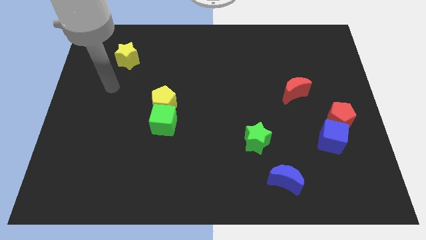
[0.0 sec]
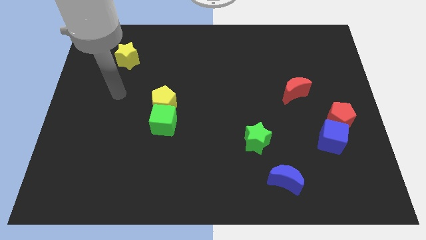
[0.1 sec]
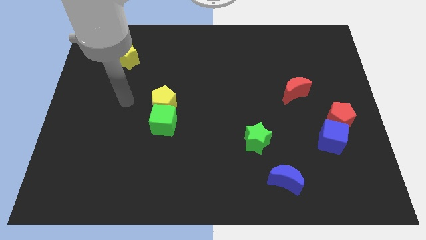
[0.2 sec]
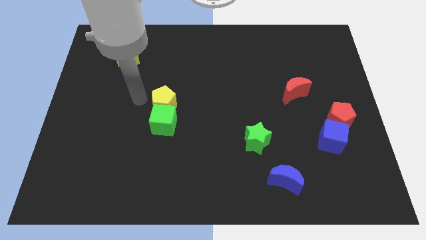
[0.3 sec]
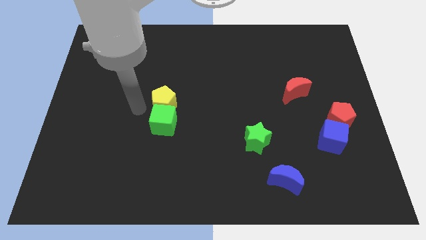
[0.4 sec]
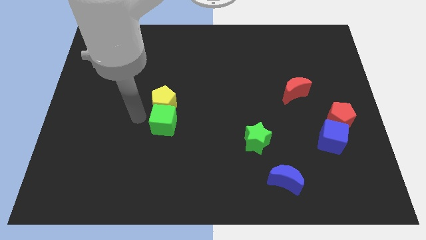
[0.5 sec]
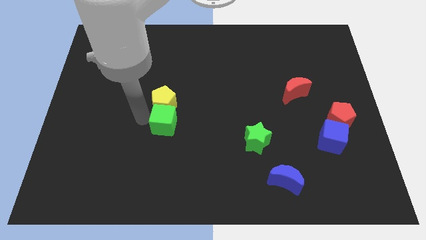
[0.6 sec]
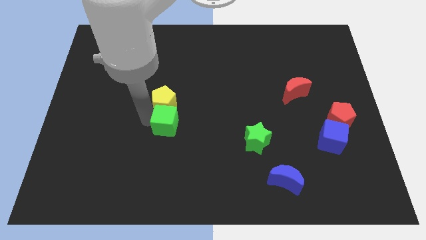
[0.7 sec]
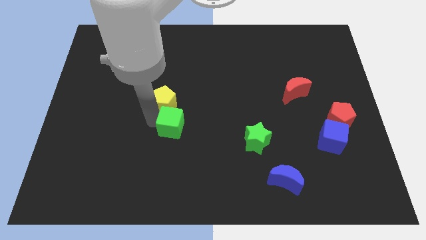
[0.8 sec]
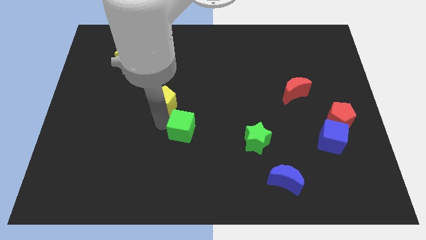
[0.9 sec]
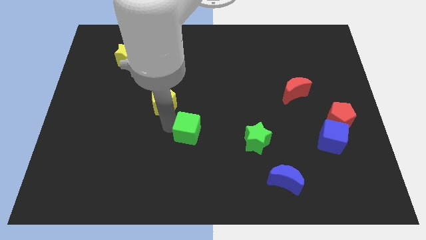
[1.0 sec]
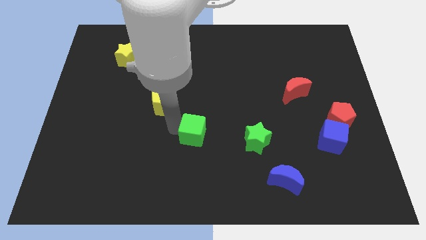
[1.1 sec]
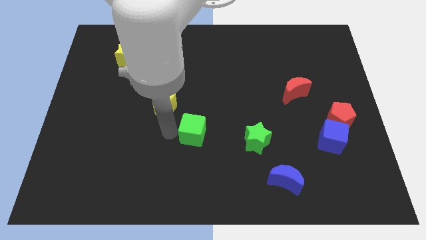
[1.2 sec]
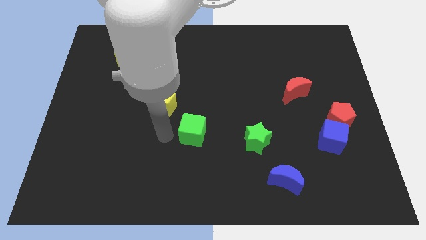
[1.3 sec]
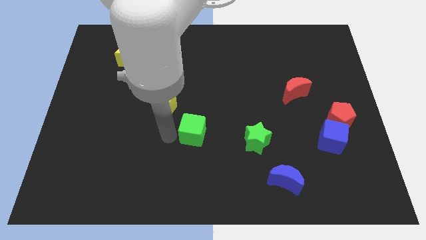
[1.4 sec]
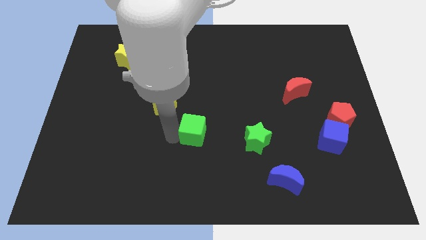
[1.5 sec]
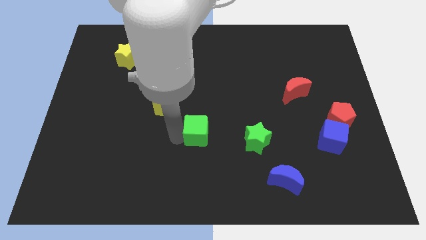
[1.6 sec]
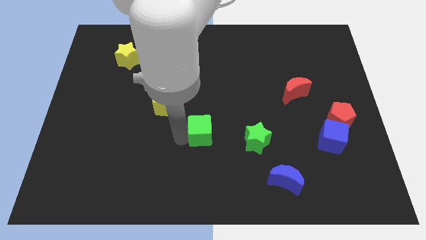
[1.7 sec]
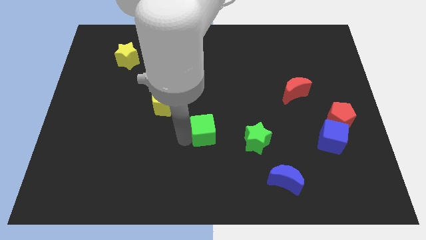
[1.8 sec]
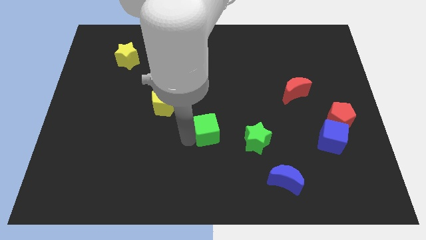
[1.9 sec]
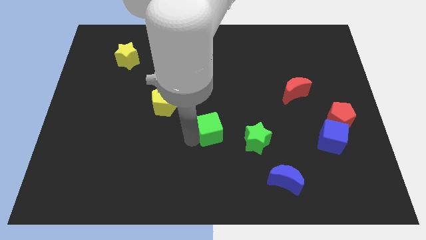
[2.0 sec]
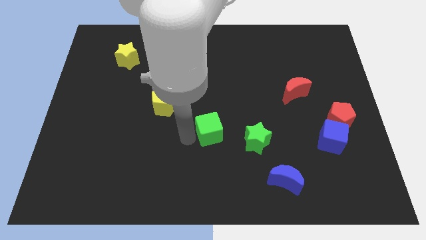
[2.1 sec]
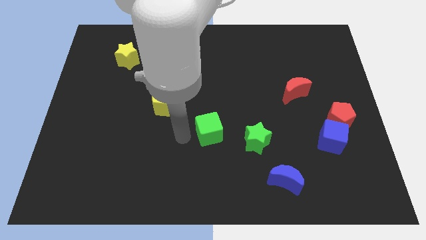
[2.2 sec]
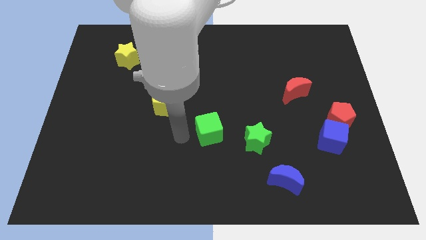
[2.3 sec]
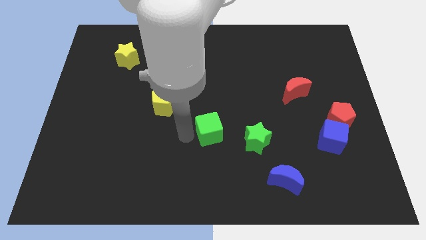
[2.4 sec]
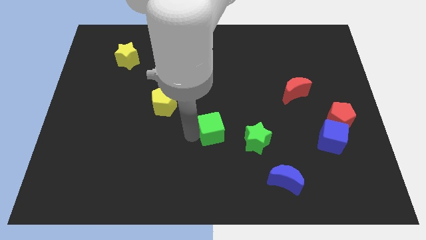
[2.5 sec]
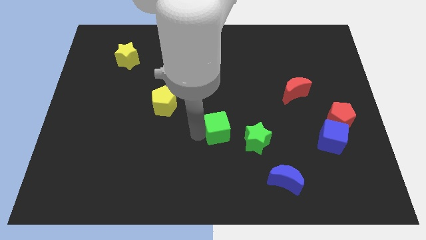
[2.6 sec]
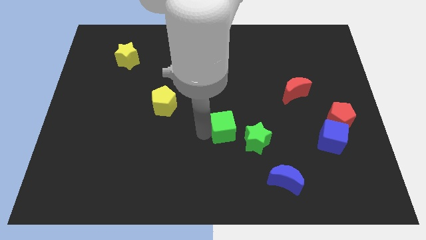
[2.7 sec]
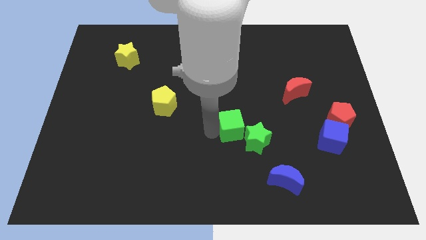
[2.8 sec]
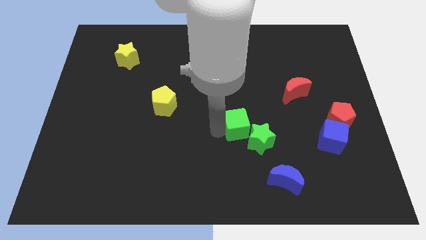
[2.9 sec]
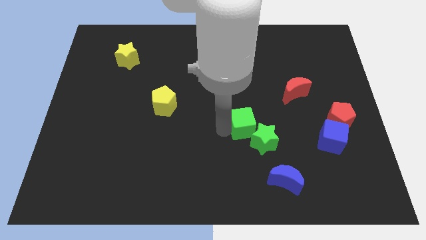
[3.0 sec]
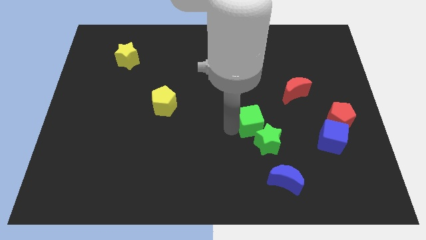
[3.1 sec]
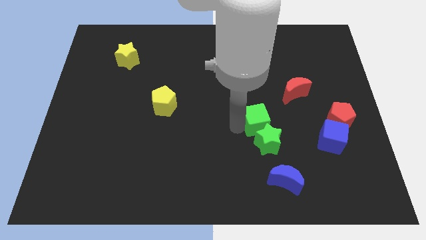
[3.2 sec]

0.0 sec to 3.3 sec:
slide the green cube right

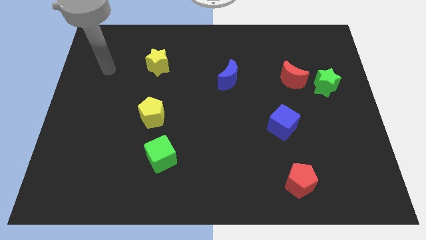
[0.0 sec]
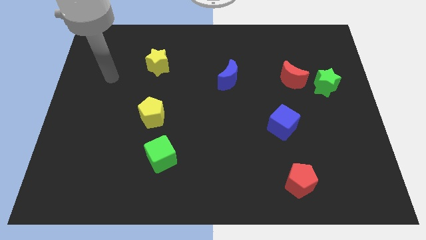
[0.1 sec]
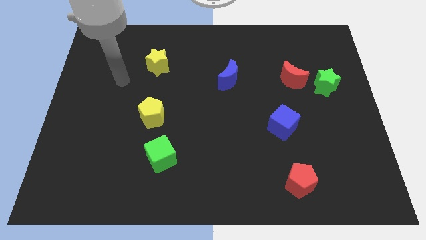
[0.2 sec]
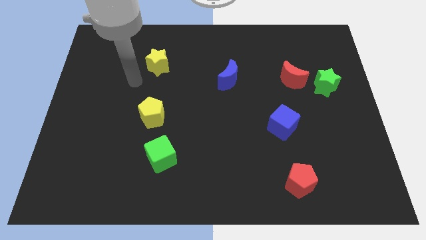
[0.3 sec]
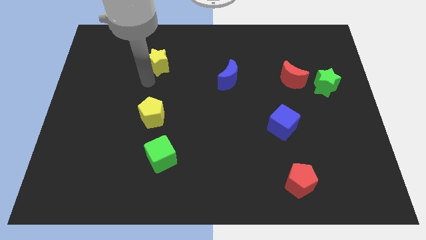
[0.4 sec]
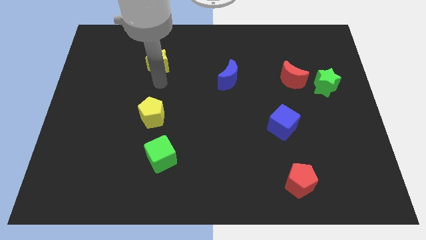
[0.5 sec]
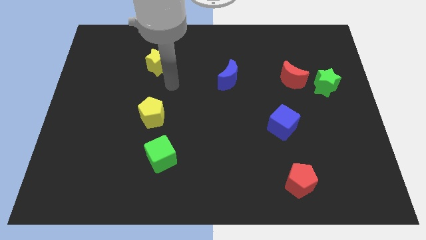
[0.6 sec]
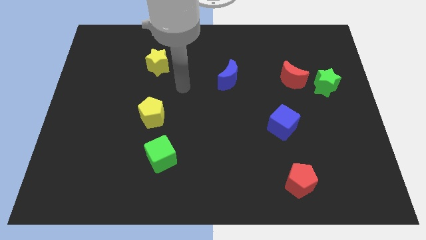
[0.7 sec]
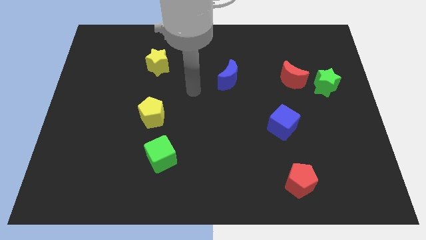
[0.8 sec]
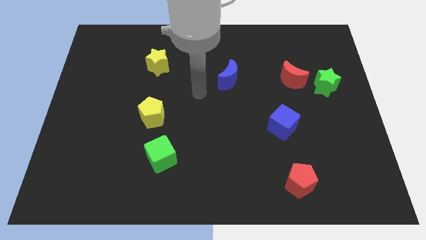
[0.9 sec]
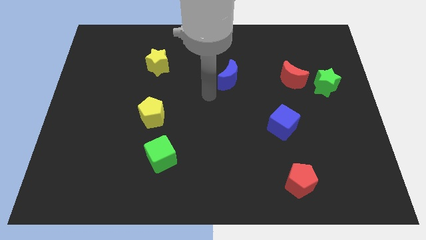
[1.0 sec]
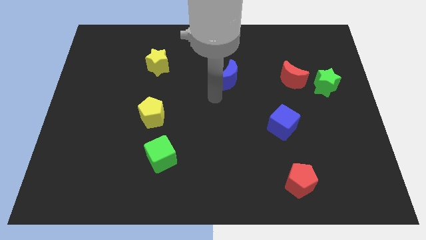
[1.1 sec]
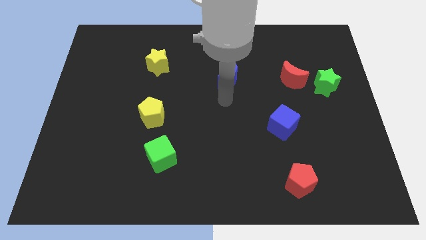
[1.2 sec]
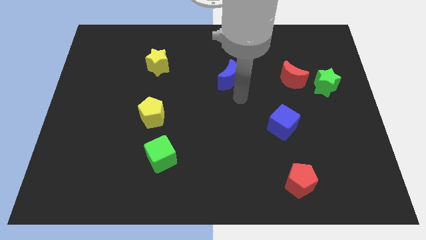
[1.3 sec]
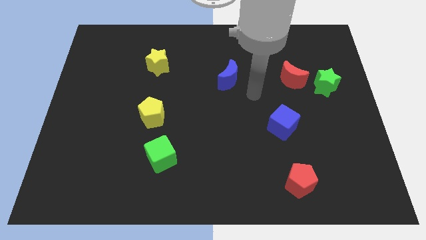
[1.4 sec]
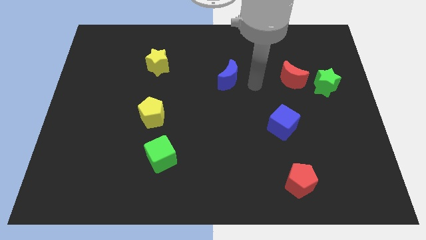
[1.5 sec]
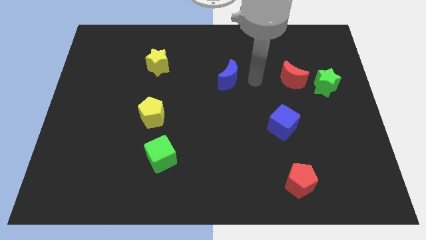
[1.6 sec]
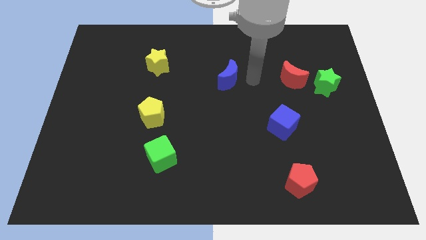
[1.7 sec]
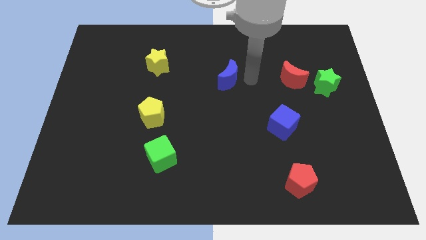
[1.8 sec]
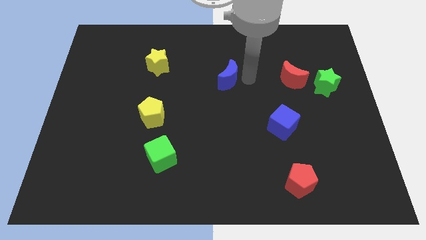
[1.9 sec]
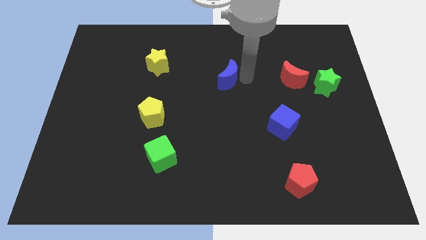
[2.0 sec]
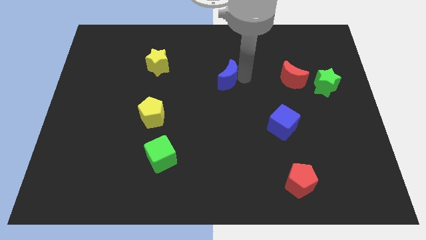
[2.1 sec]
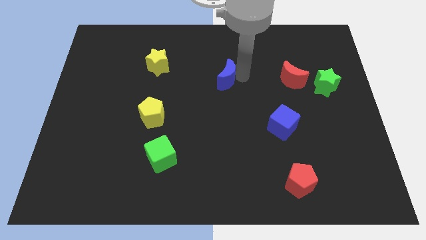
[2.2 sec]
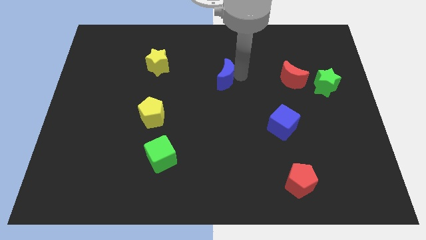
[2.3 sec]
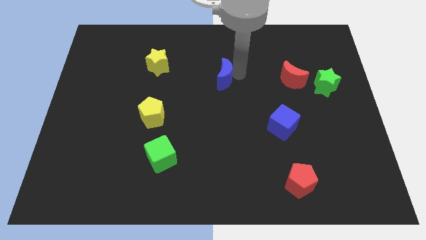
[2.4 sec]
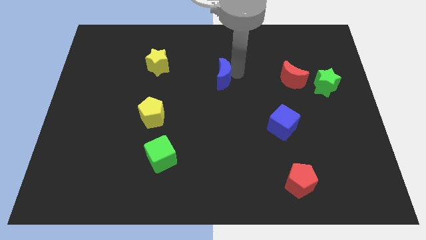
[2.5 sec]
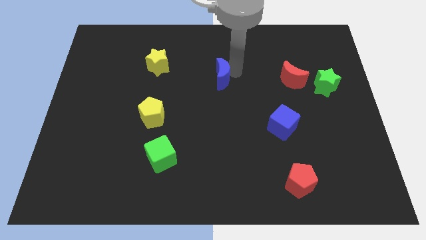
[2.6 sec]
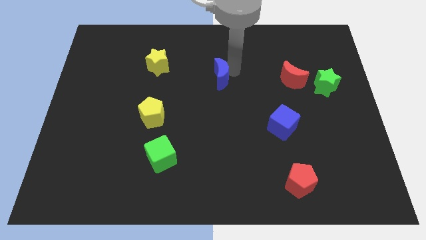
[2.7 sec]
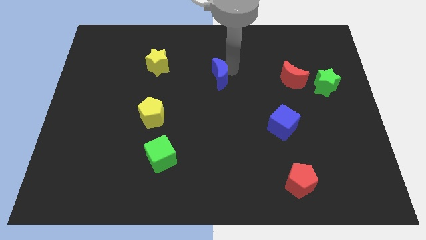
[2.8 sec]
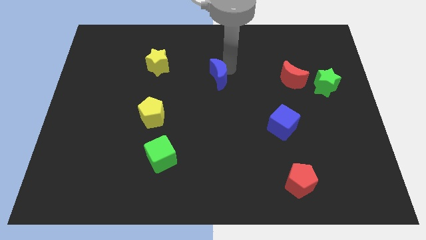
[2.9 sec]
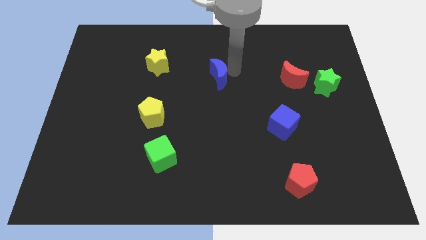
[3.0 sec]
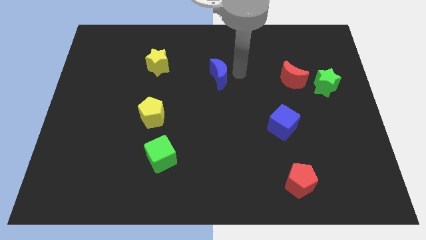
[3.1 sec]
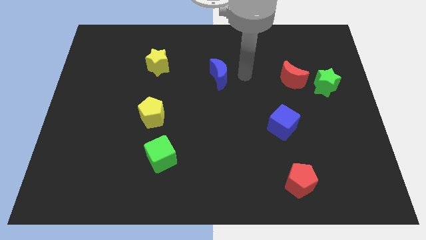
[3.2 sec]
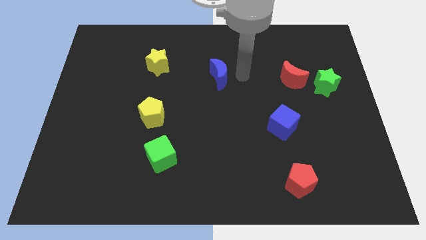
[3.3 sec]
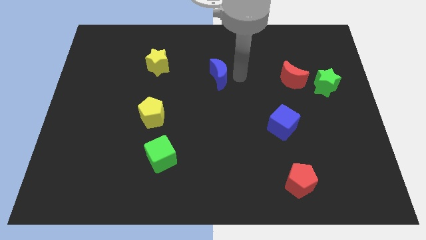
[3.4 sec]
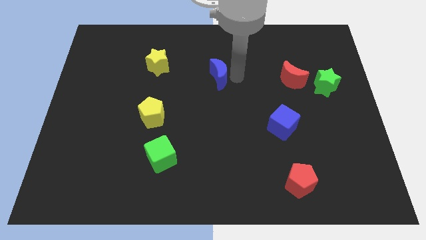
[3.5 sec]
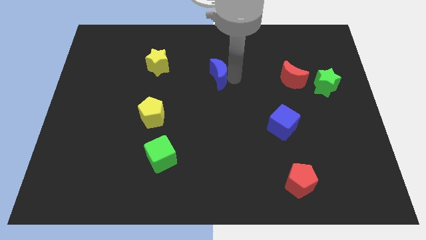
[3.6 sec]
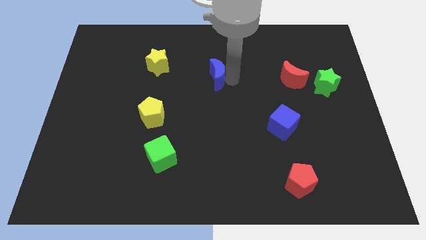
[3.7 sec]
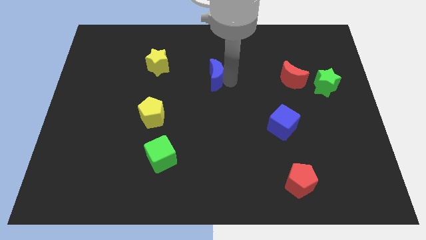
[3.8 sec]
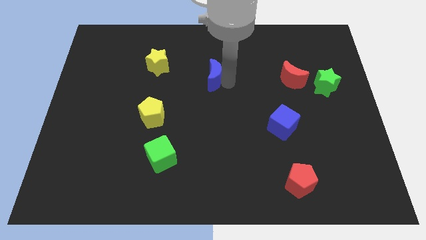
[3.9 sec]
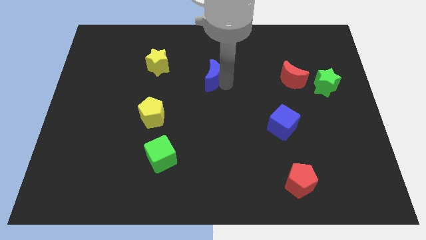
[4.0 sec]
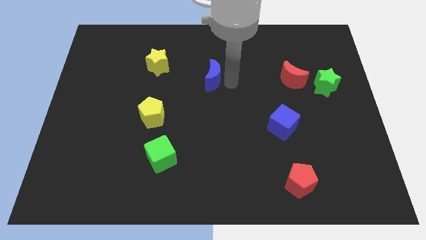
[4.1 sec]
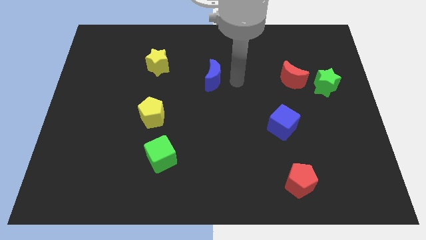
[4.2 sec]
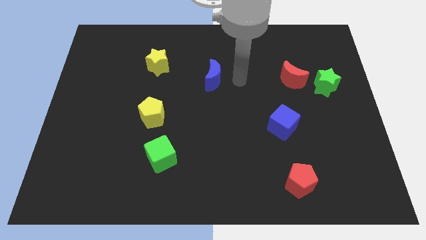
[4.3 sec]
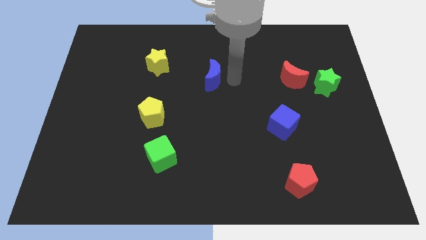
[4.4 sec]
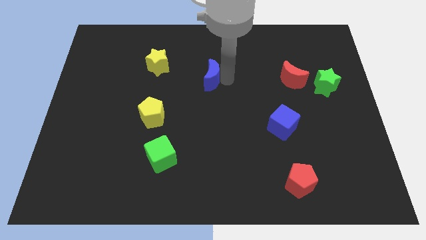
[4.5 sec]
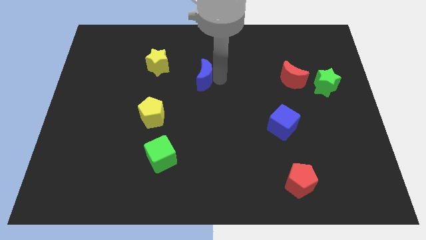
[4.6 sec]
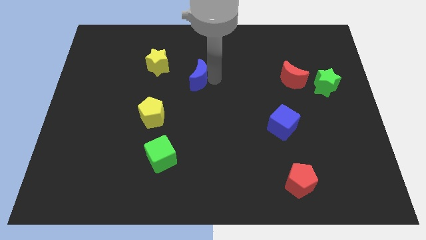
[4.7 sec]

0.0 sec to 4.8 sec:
slide the blue moon left a bit
